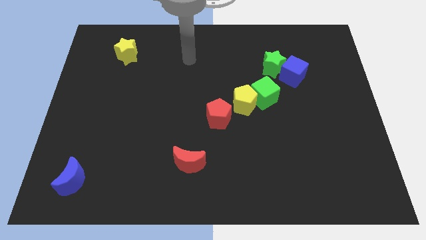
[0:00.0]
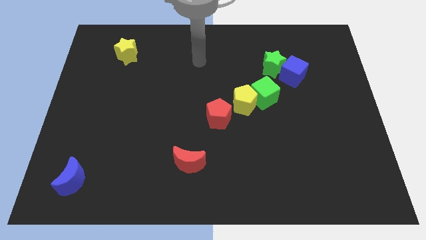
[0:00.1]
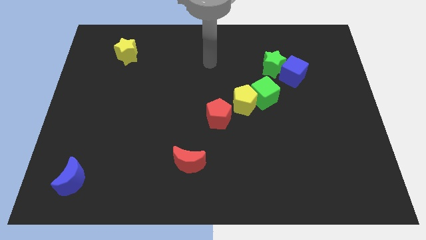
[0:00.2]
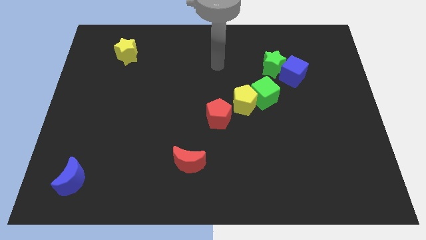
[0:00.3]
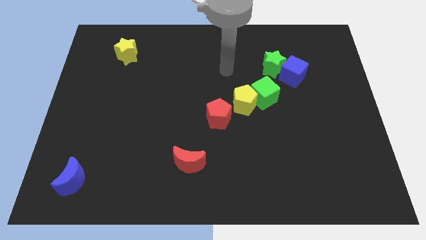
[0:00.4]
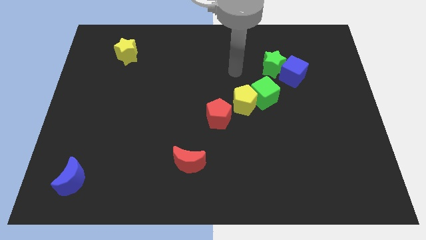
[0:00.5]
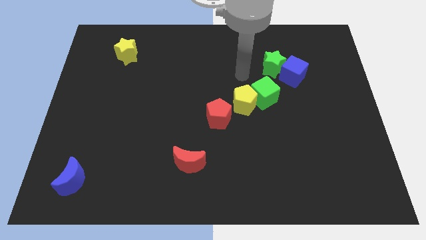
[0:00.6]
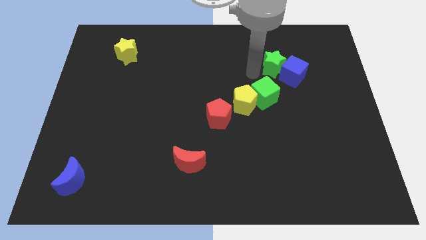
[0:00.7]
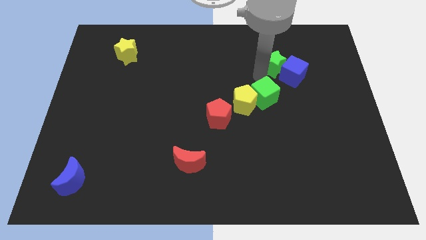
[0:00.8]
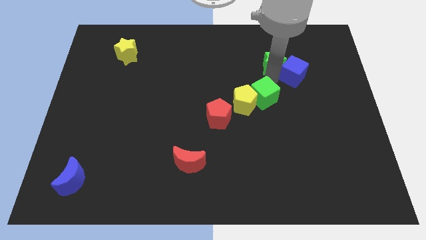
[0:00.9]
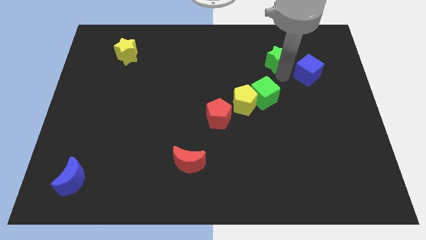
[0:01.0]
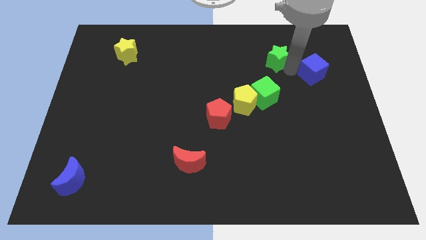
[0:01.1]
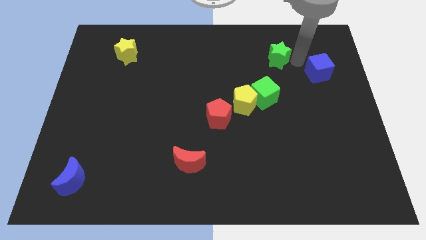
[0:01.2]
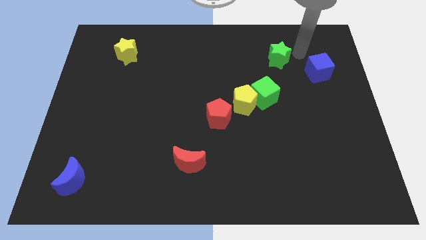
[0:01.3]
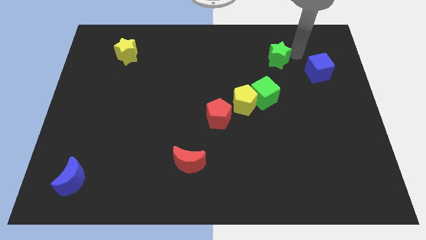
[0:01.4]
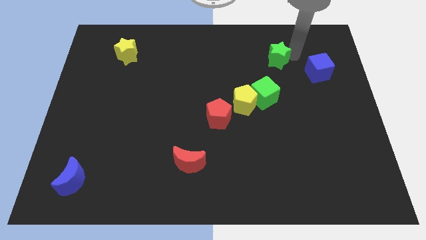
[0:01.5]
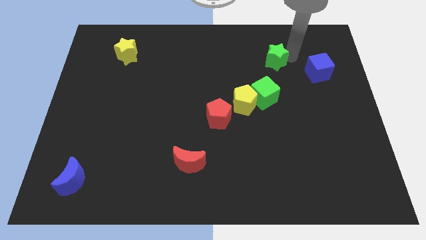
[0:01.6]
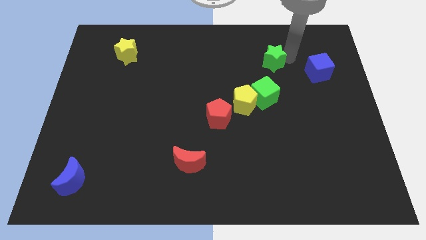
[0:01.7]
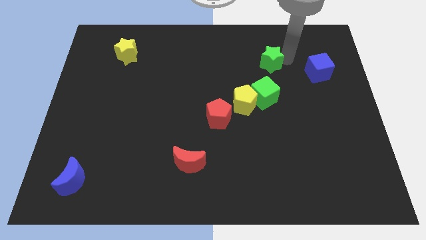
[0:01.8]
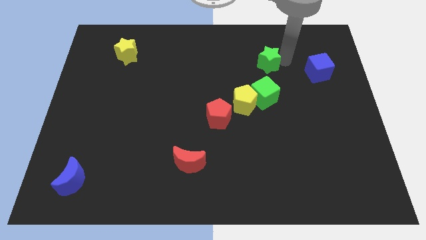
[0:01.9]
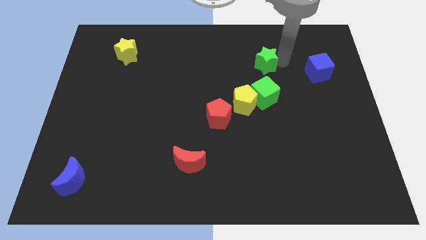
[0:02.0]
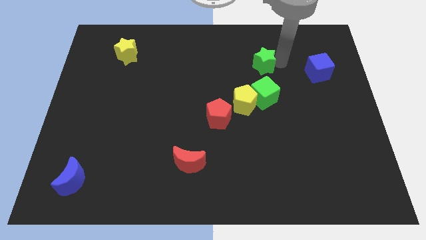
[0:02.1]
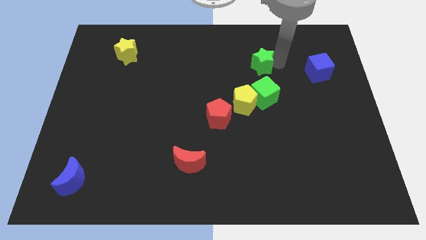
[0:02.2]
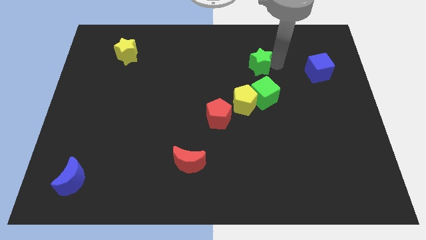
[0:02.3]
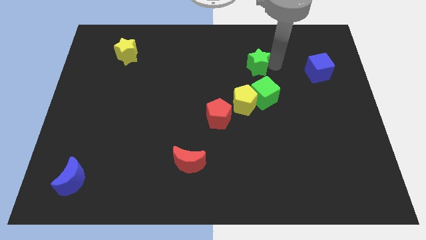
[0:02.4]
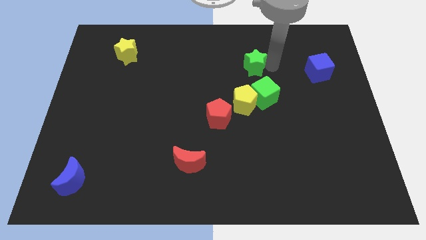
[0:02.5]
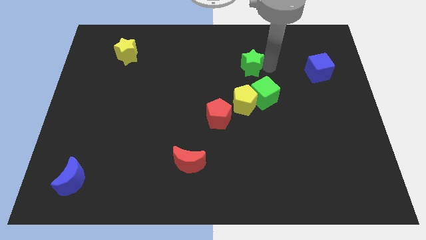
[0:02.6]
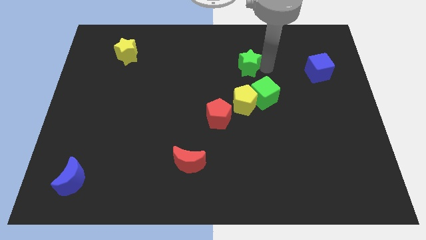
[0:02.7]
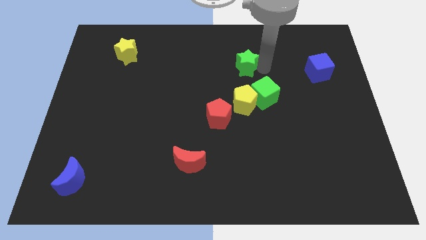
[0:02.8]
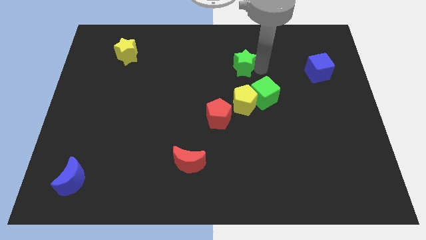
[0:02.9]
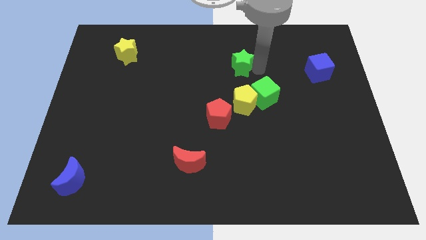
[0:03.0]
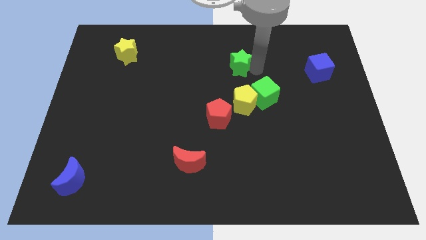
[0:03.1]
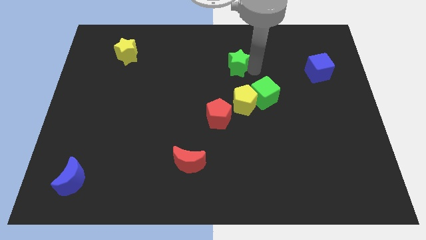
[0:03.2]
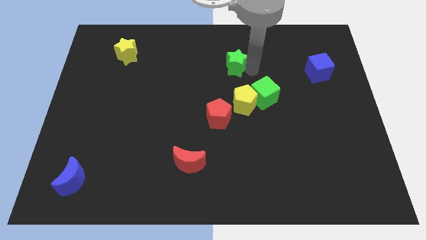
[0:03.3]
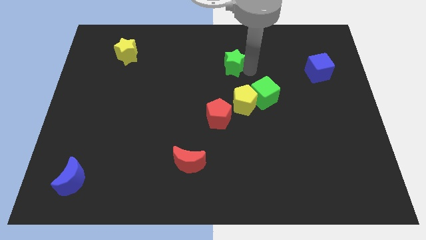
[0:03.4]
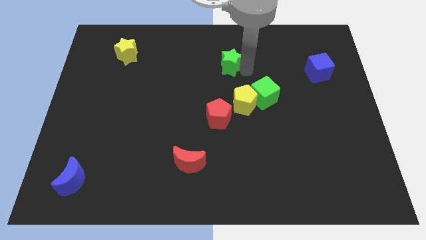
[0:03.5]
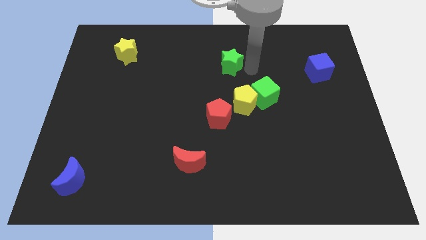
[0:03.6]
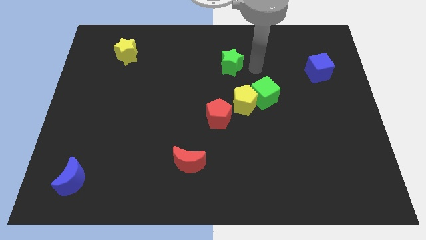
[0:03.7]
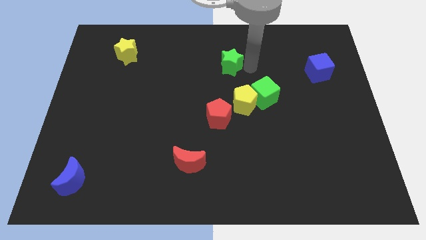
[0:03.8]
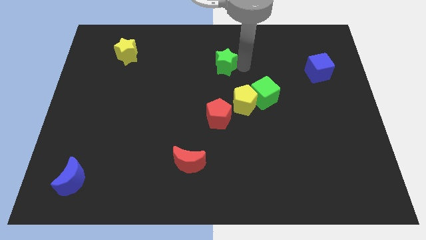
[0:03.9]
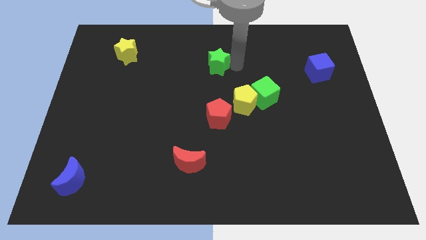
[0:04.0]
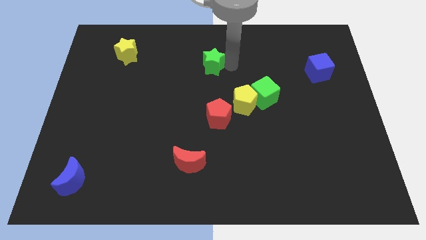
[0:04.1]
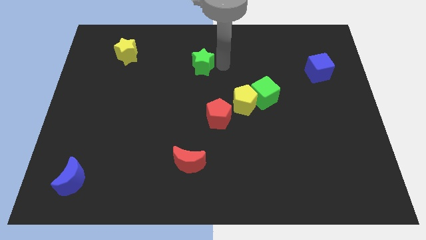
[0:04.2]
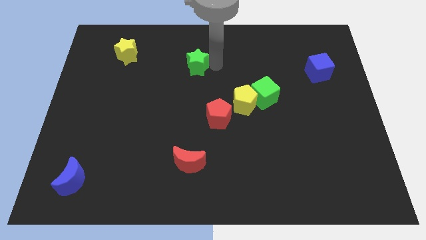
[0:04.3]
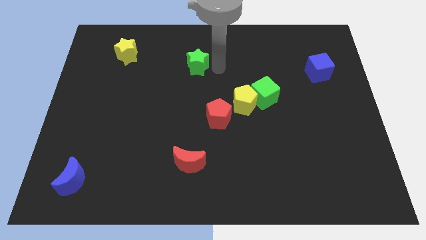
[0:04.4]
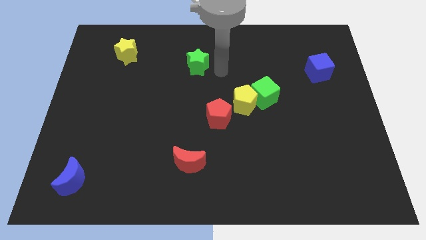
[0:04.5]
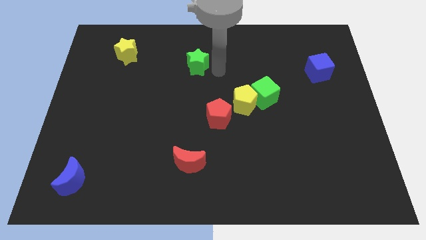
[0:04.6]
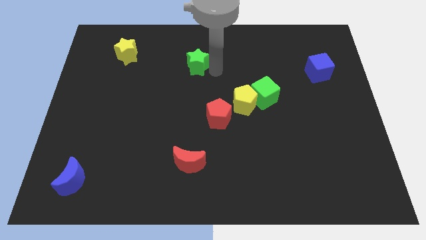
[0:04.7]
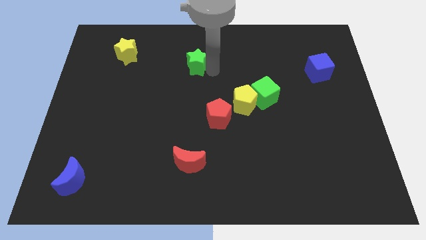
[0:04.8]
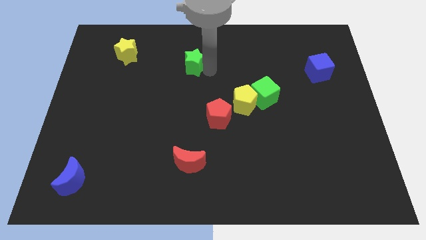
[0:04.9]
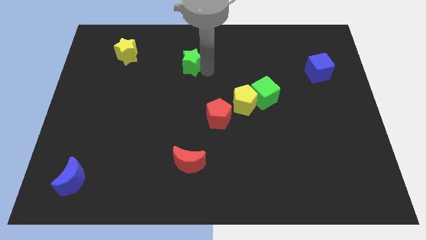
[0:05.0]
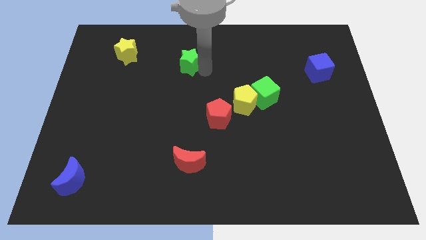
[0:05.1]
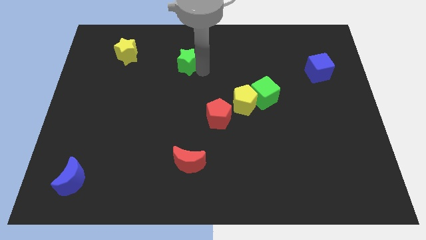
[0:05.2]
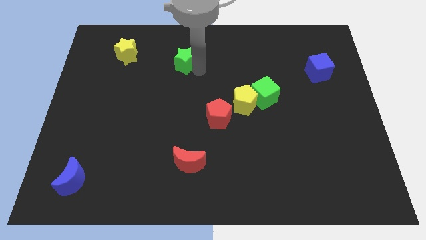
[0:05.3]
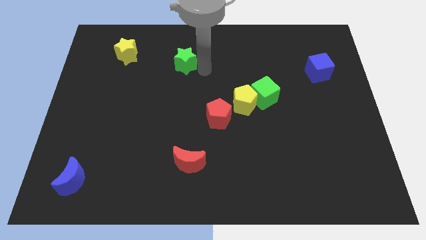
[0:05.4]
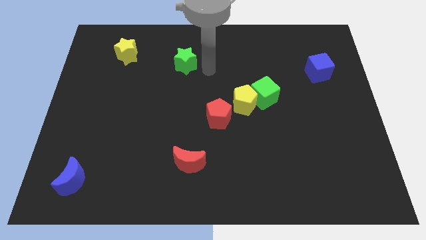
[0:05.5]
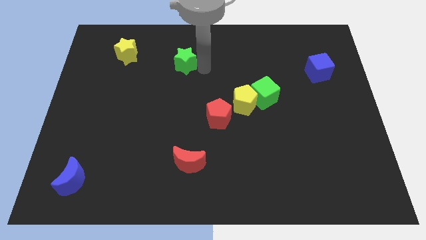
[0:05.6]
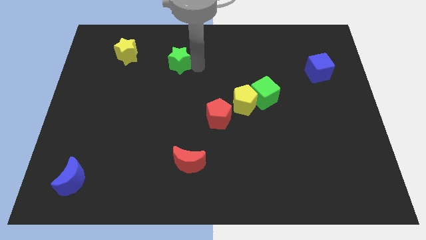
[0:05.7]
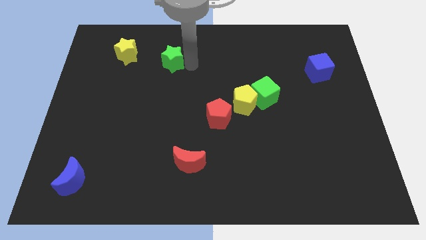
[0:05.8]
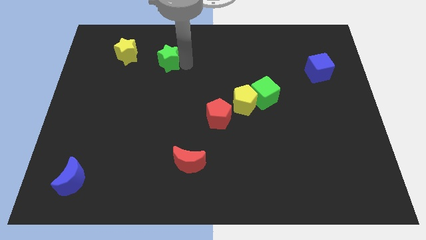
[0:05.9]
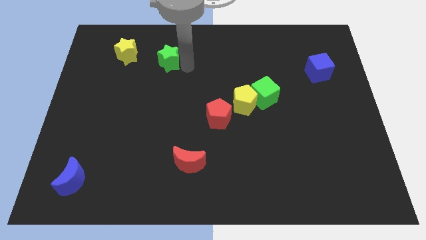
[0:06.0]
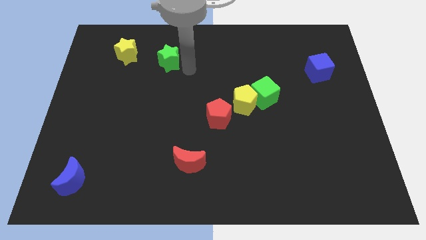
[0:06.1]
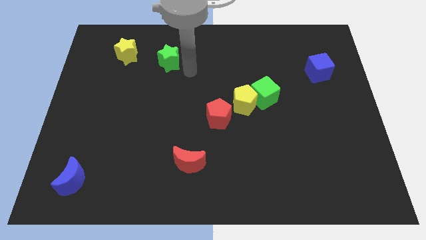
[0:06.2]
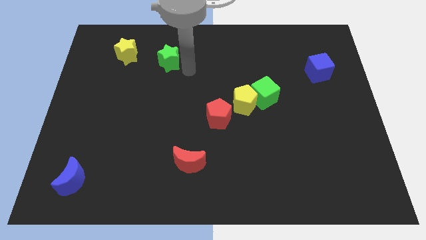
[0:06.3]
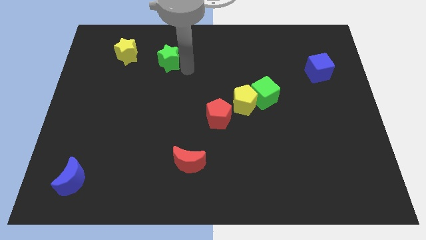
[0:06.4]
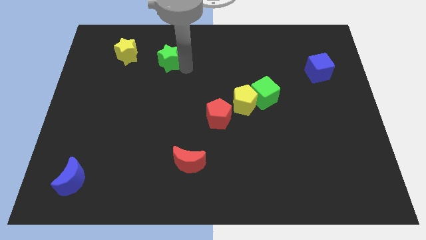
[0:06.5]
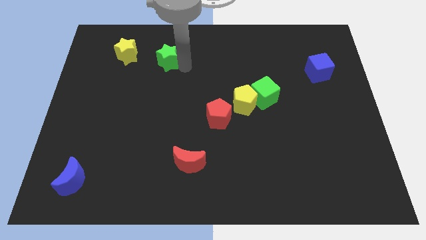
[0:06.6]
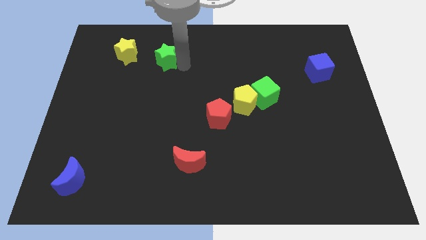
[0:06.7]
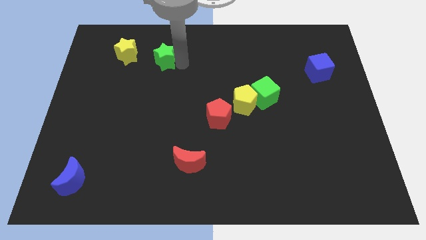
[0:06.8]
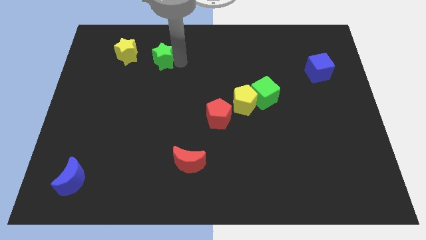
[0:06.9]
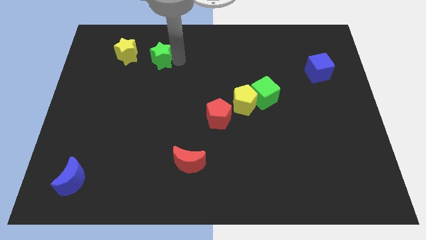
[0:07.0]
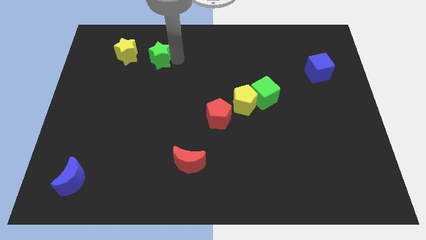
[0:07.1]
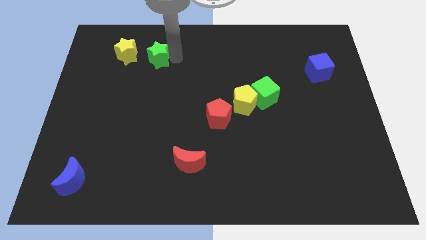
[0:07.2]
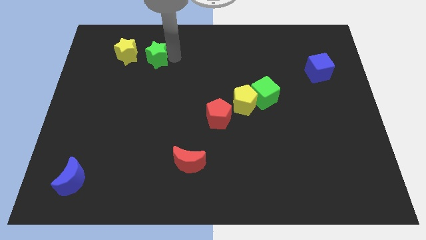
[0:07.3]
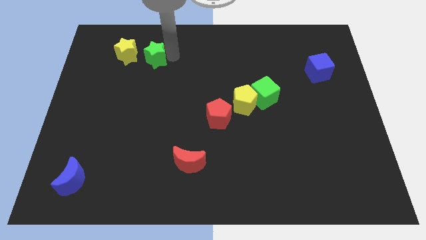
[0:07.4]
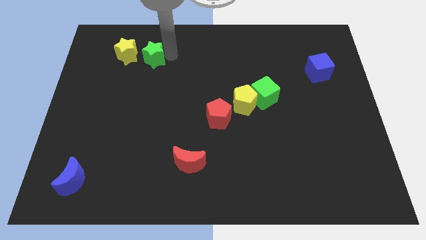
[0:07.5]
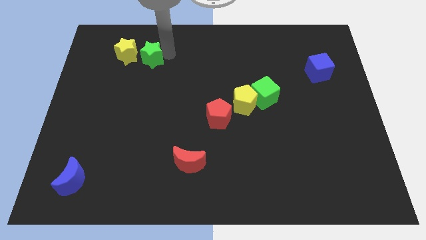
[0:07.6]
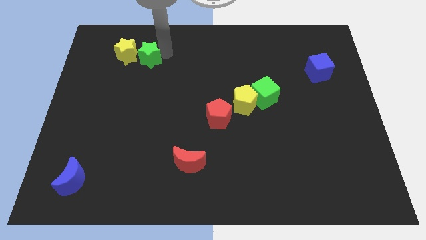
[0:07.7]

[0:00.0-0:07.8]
move the green star next to the yellow star
